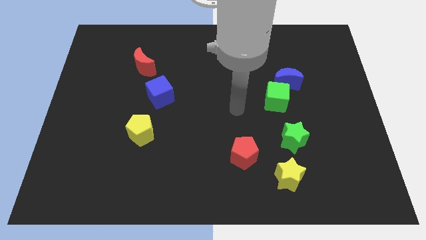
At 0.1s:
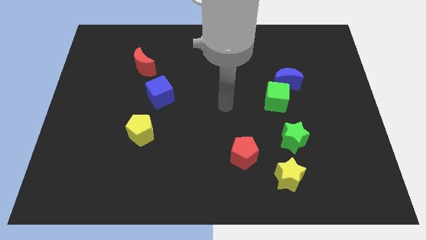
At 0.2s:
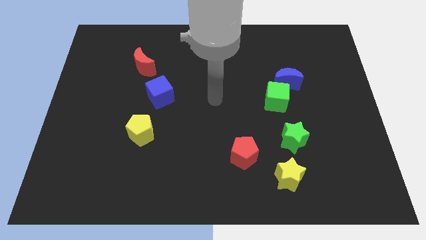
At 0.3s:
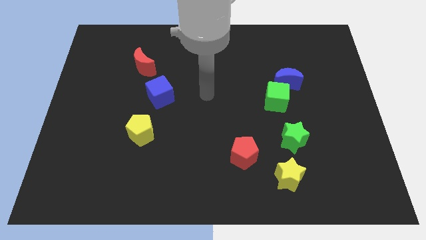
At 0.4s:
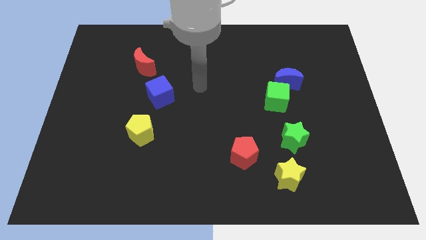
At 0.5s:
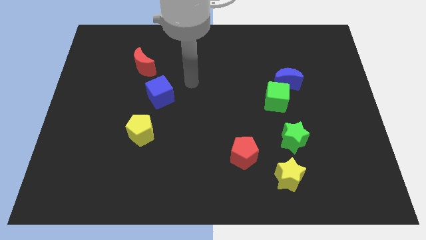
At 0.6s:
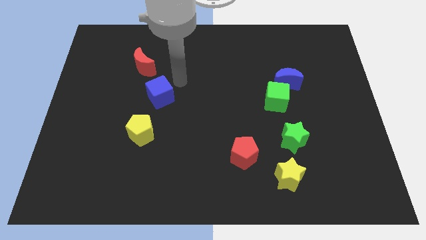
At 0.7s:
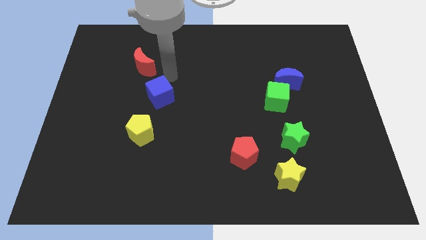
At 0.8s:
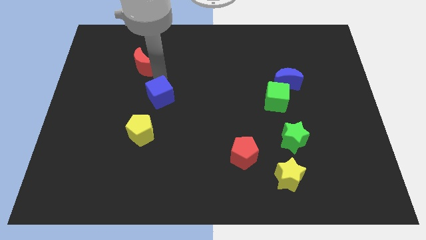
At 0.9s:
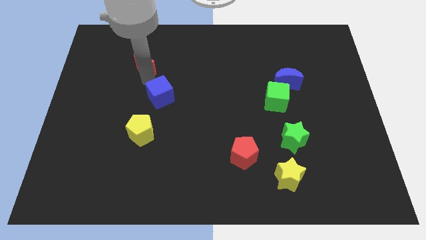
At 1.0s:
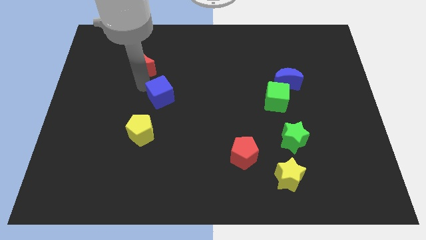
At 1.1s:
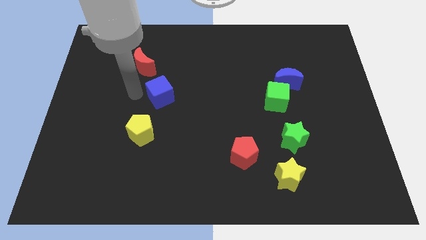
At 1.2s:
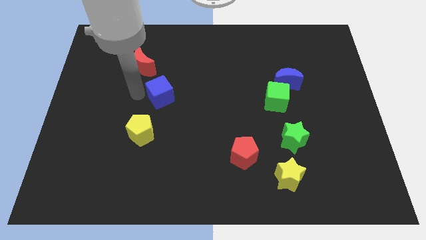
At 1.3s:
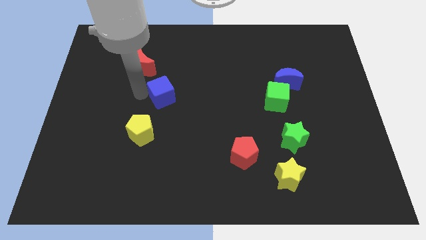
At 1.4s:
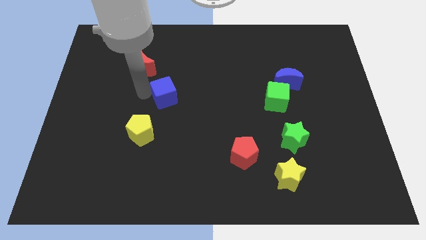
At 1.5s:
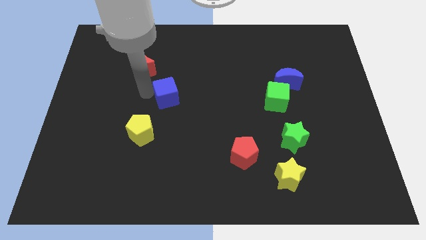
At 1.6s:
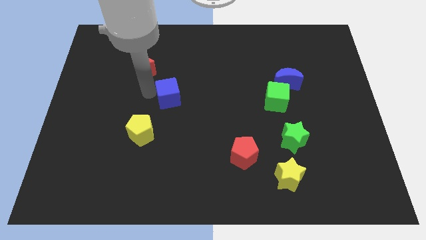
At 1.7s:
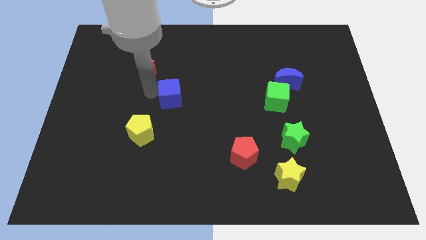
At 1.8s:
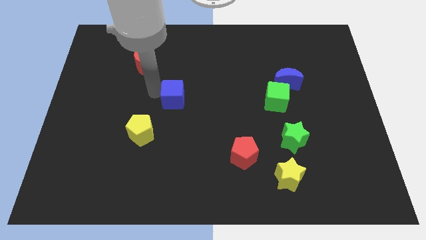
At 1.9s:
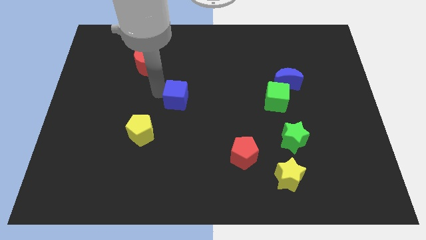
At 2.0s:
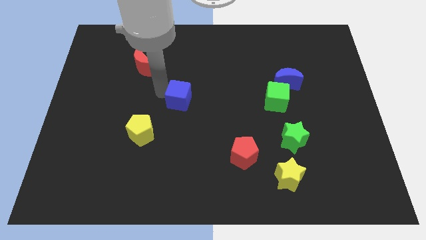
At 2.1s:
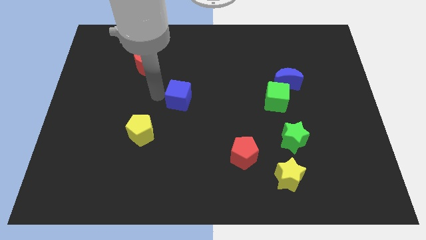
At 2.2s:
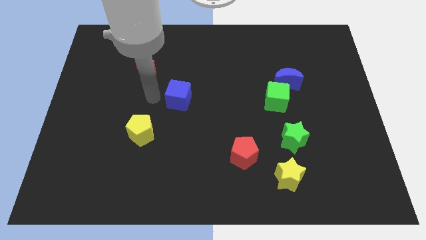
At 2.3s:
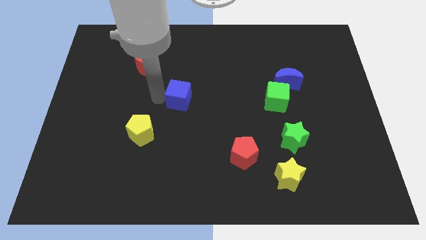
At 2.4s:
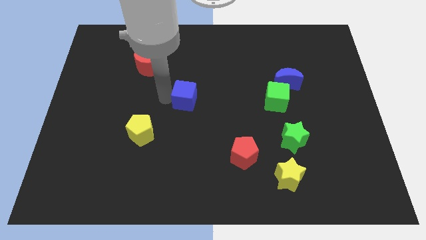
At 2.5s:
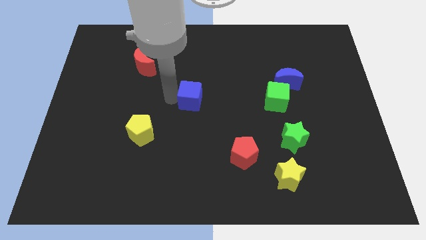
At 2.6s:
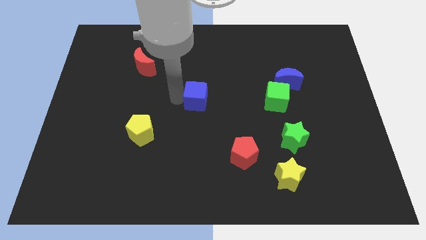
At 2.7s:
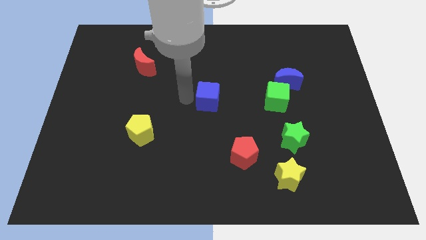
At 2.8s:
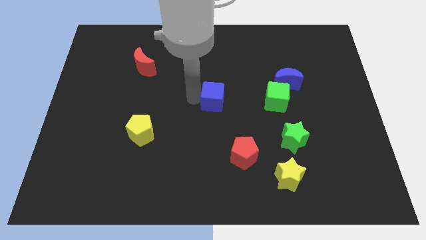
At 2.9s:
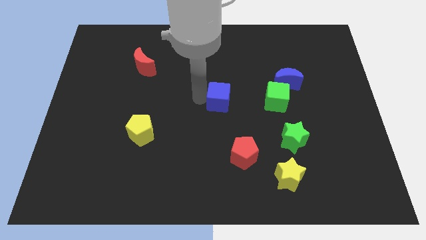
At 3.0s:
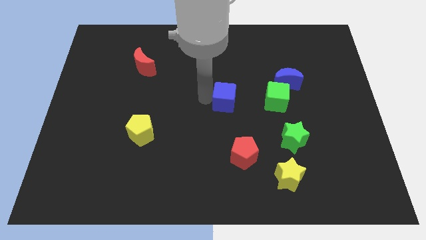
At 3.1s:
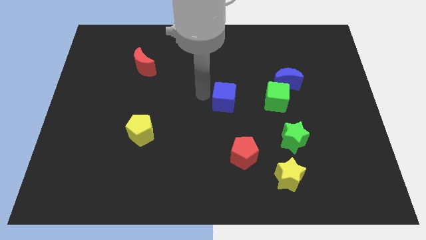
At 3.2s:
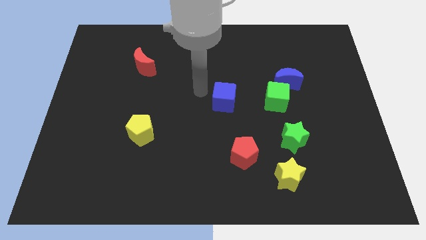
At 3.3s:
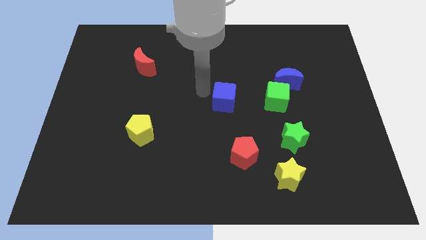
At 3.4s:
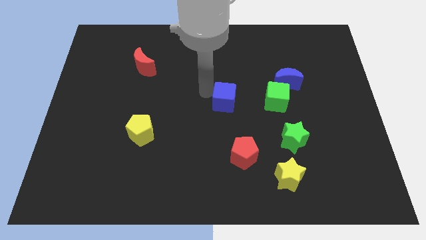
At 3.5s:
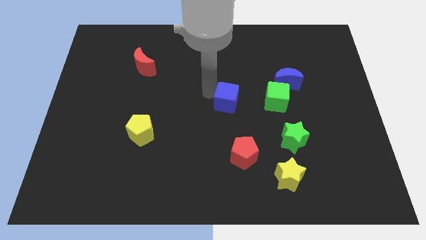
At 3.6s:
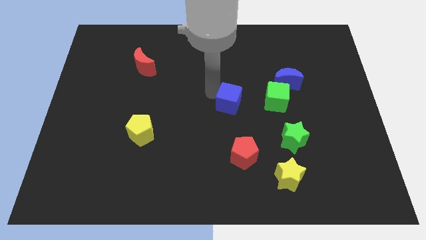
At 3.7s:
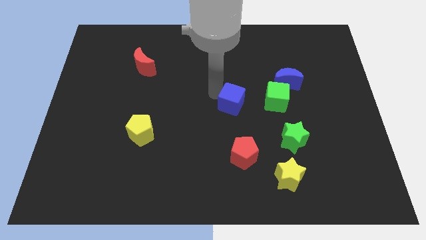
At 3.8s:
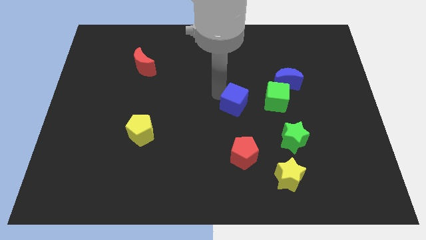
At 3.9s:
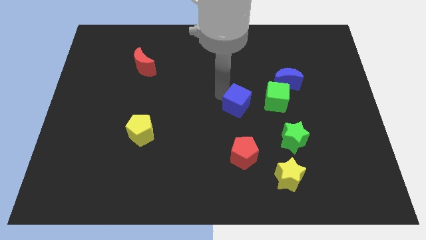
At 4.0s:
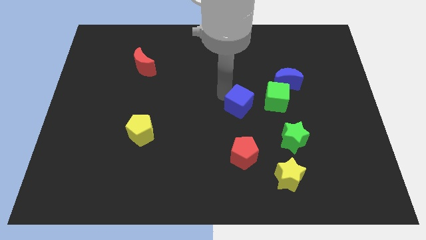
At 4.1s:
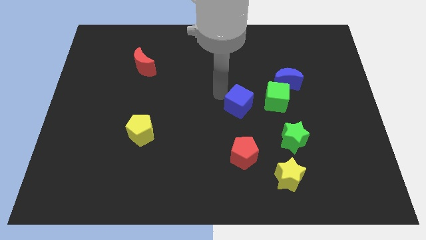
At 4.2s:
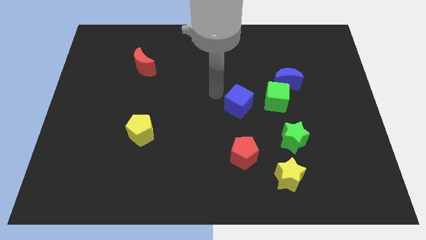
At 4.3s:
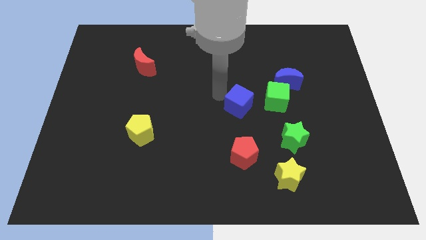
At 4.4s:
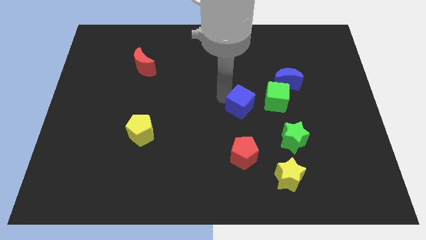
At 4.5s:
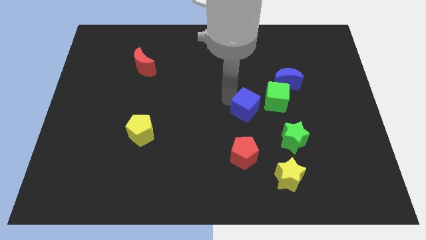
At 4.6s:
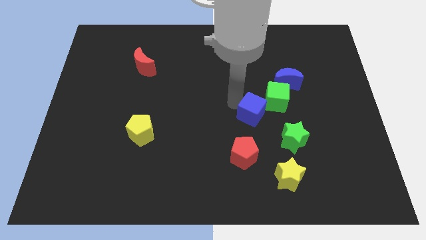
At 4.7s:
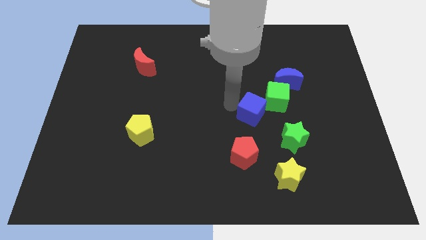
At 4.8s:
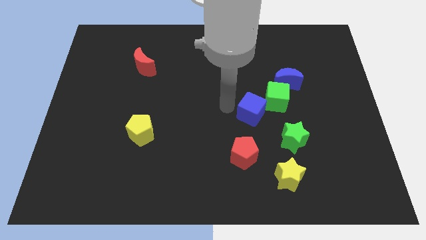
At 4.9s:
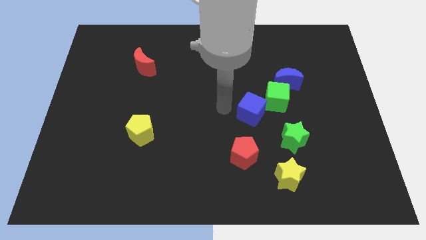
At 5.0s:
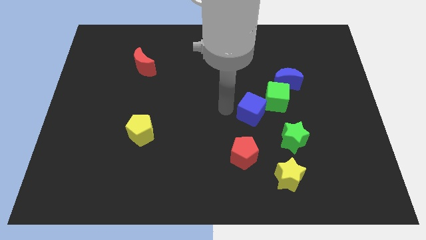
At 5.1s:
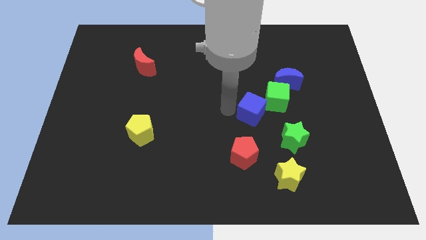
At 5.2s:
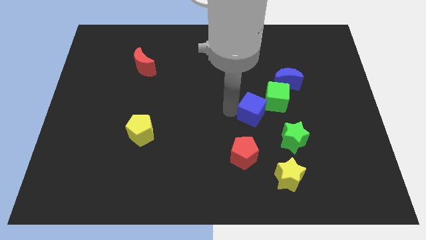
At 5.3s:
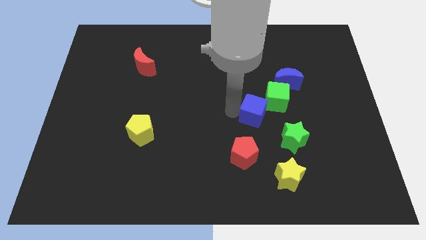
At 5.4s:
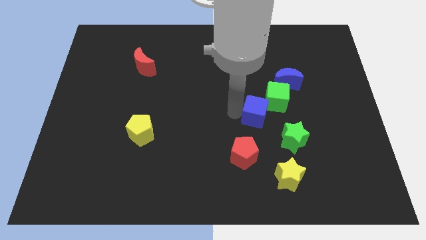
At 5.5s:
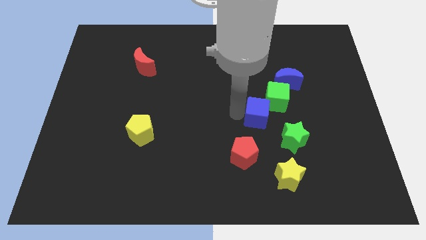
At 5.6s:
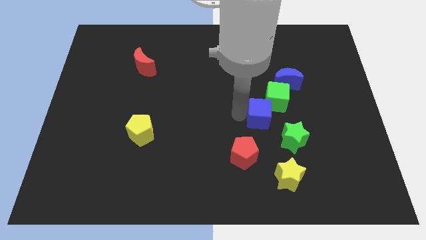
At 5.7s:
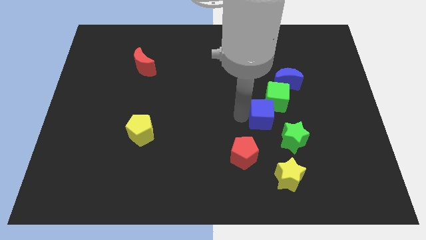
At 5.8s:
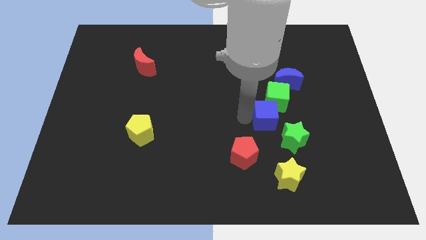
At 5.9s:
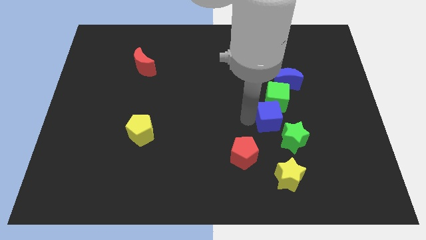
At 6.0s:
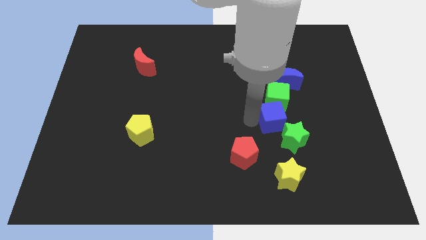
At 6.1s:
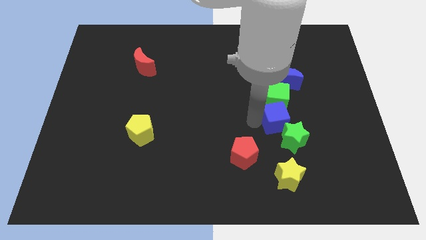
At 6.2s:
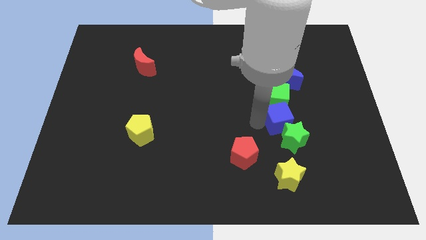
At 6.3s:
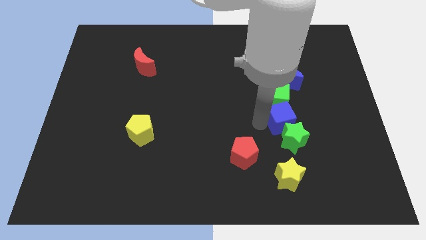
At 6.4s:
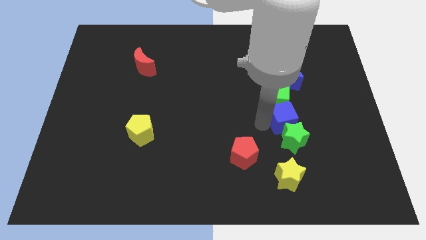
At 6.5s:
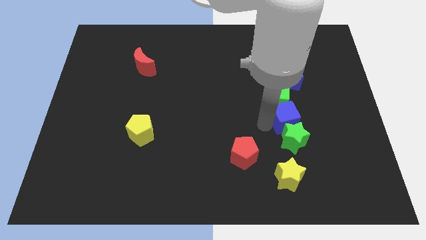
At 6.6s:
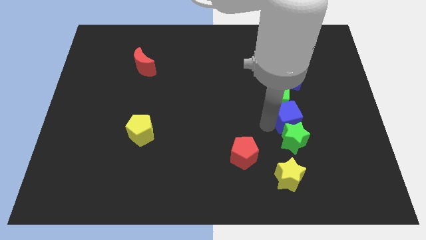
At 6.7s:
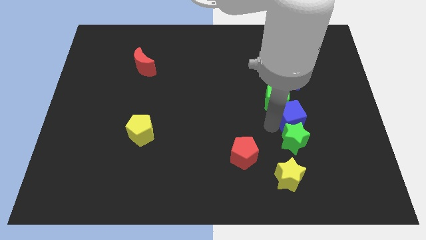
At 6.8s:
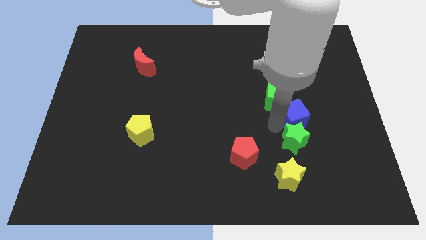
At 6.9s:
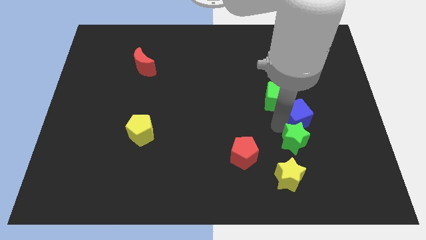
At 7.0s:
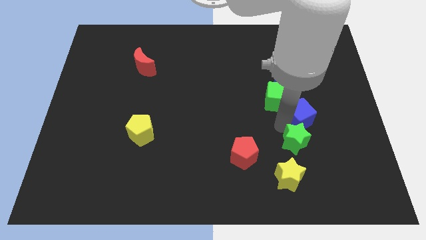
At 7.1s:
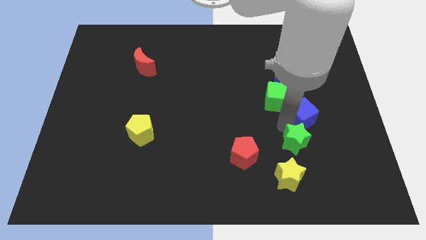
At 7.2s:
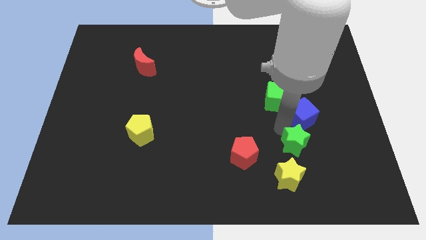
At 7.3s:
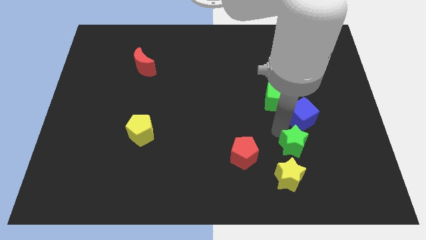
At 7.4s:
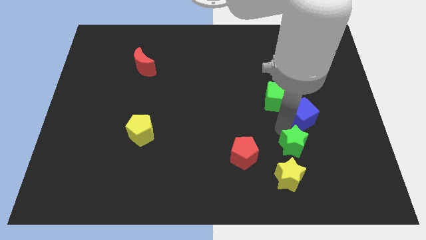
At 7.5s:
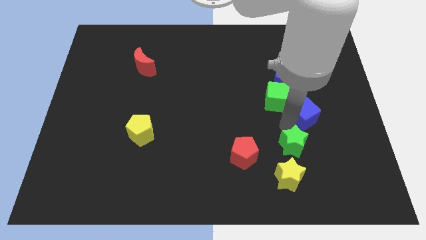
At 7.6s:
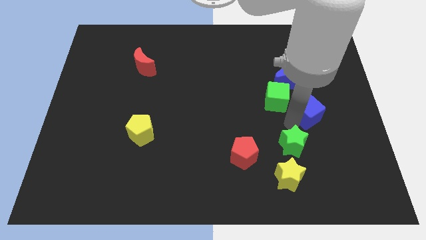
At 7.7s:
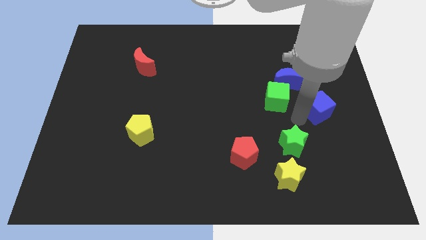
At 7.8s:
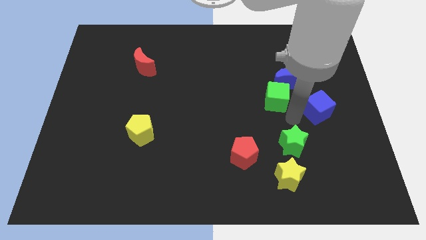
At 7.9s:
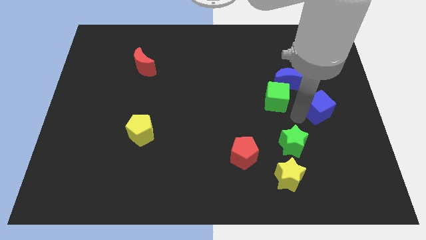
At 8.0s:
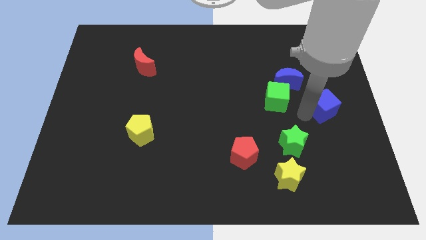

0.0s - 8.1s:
put the blue cube to the center right
